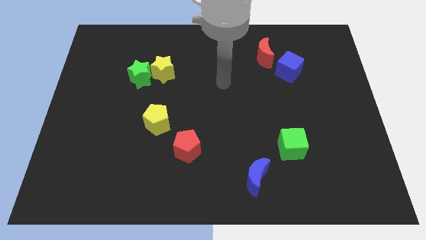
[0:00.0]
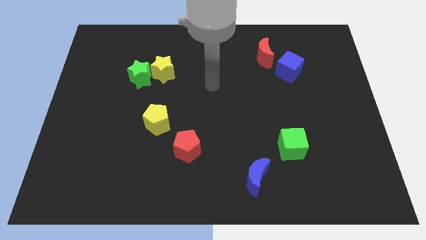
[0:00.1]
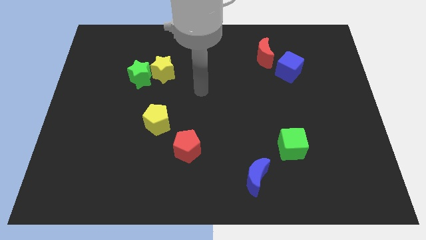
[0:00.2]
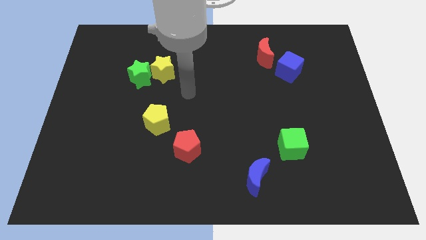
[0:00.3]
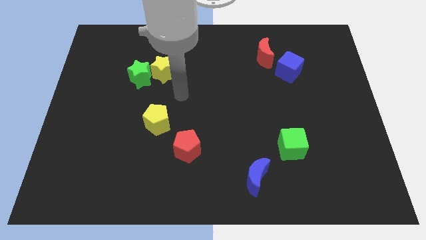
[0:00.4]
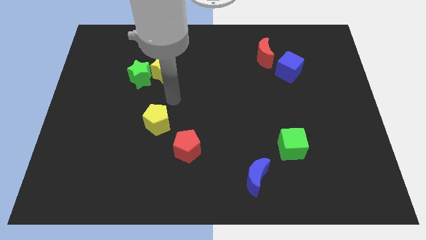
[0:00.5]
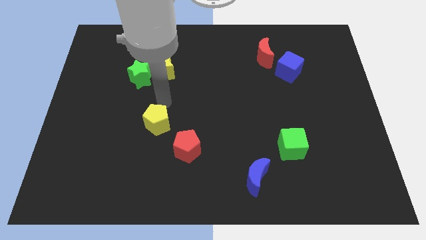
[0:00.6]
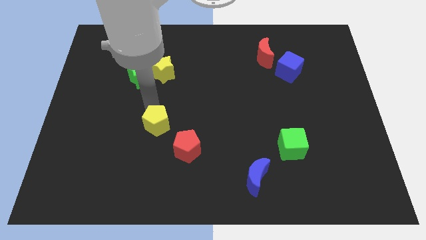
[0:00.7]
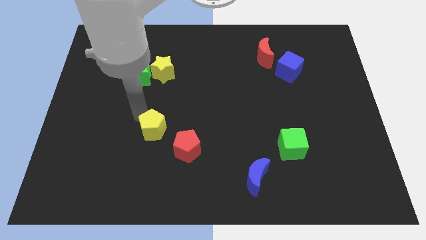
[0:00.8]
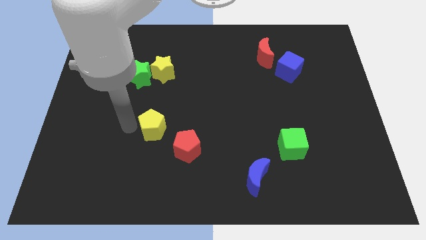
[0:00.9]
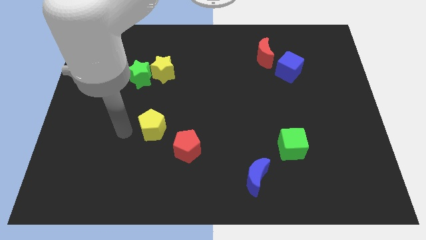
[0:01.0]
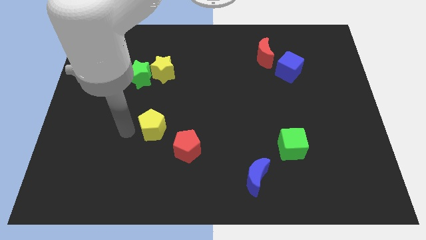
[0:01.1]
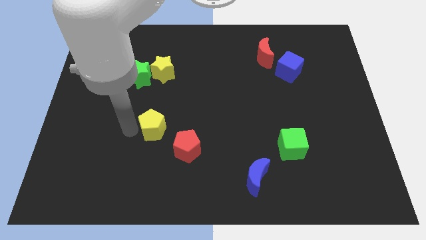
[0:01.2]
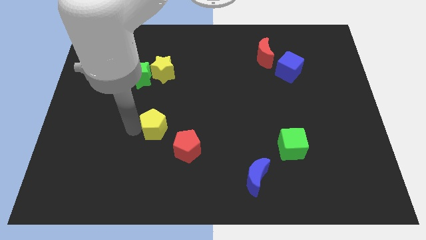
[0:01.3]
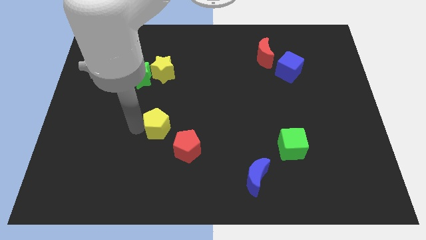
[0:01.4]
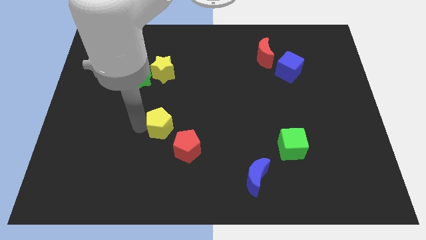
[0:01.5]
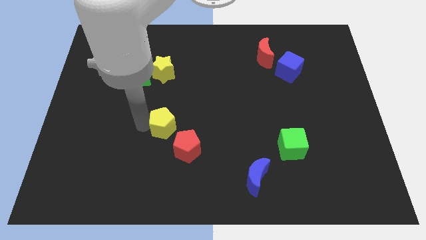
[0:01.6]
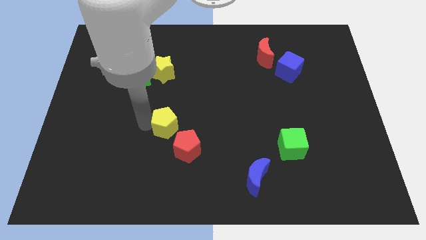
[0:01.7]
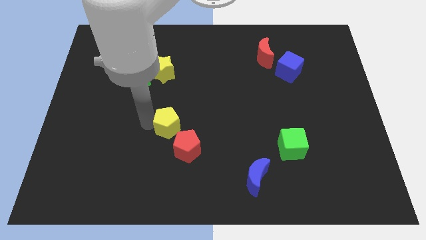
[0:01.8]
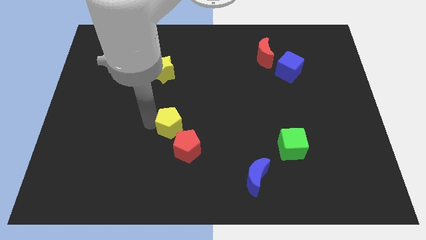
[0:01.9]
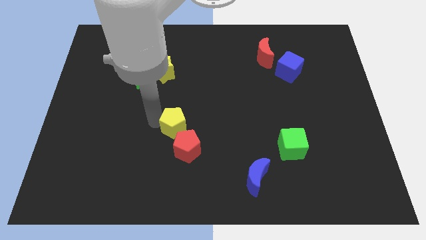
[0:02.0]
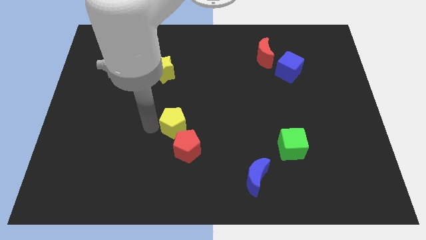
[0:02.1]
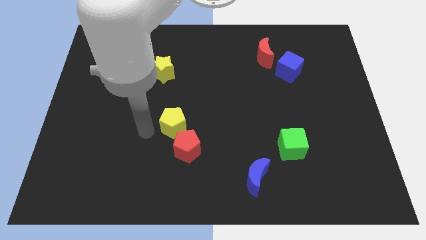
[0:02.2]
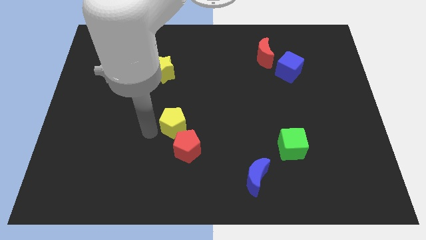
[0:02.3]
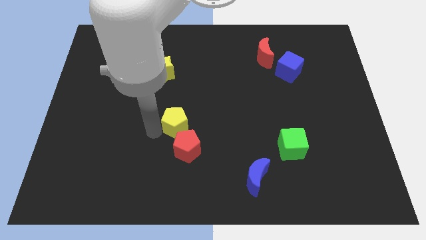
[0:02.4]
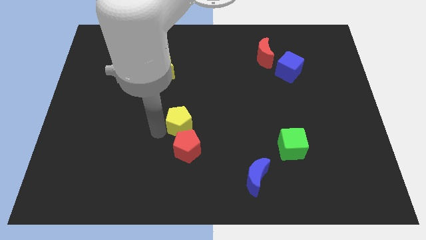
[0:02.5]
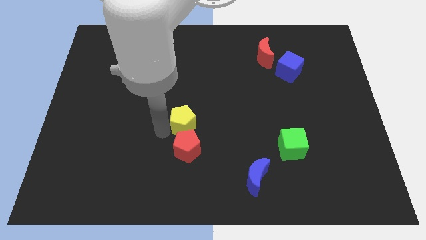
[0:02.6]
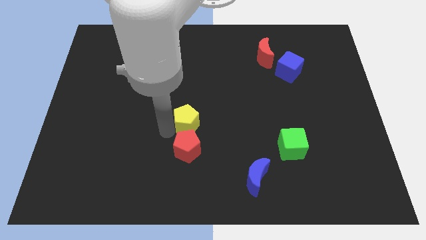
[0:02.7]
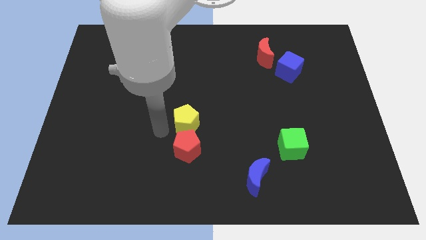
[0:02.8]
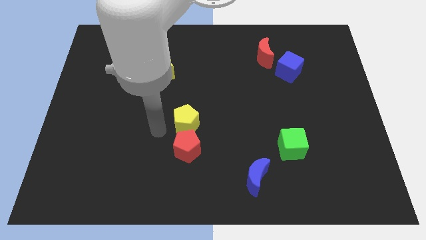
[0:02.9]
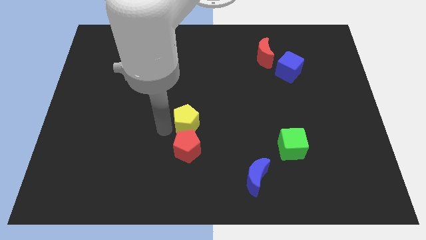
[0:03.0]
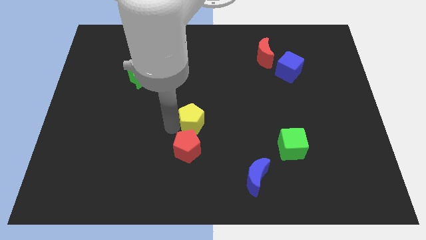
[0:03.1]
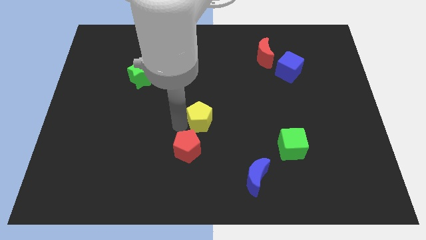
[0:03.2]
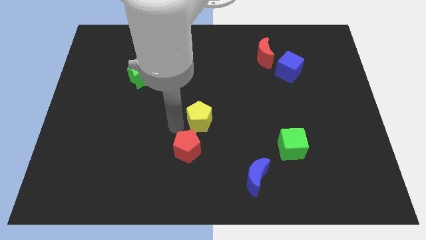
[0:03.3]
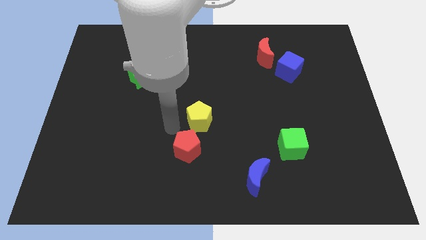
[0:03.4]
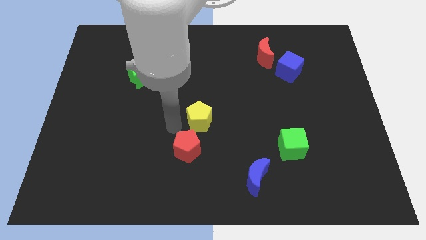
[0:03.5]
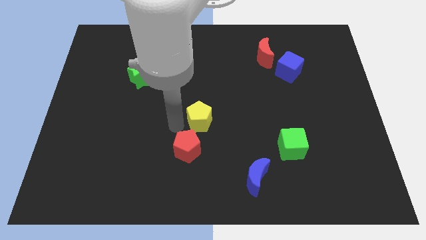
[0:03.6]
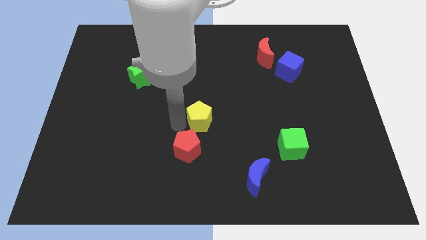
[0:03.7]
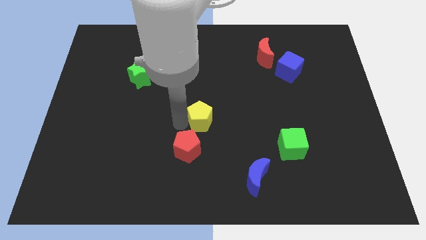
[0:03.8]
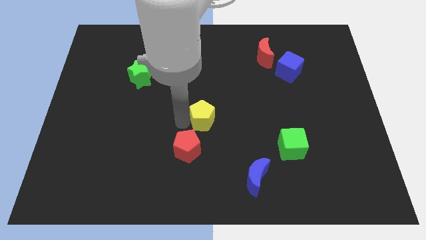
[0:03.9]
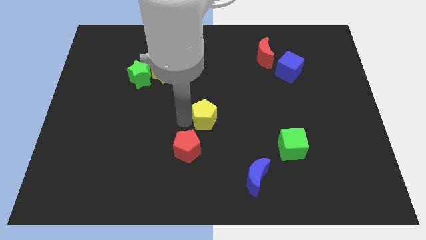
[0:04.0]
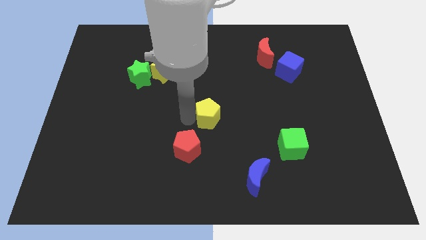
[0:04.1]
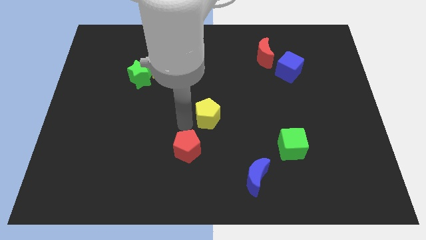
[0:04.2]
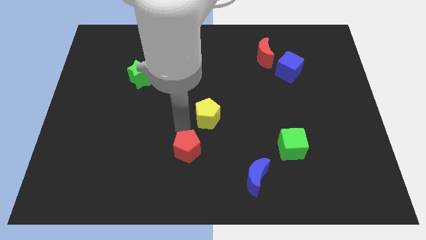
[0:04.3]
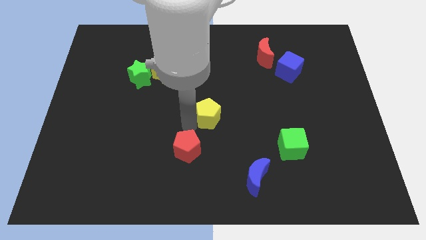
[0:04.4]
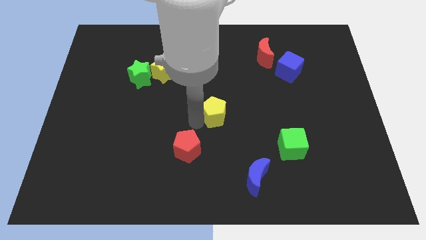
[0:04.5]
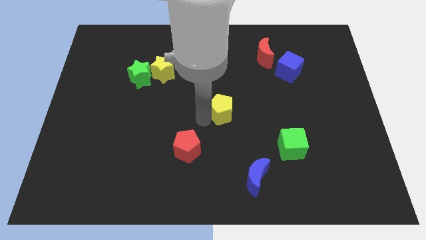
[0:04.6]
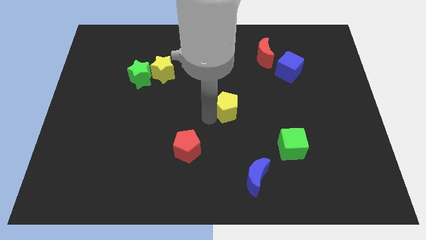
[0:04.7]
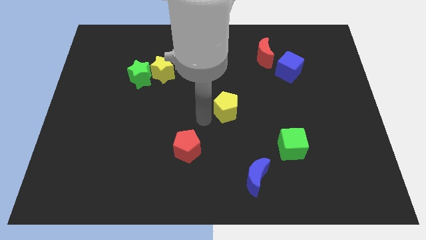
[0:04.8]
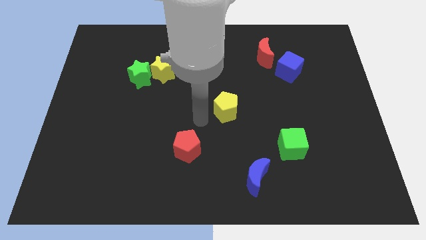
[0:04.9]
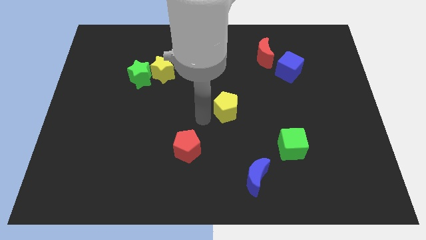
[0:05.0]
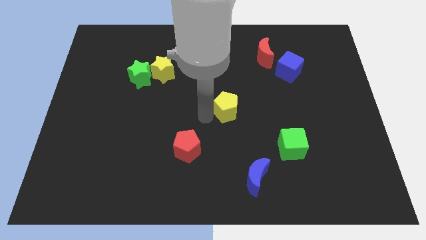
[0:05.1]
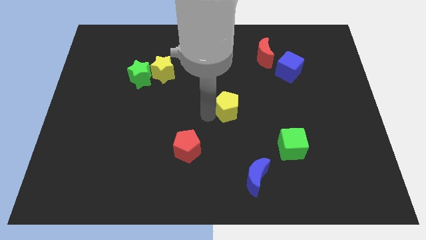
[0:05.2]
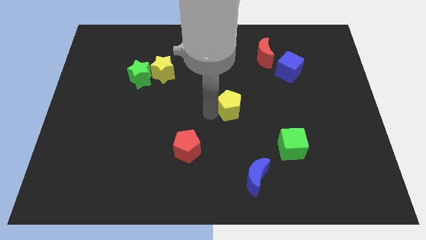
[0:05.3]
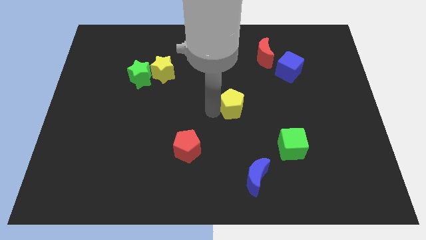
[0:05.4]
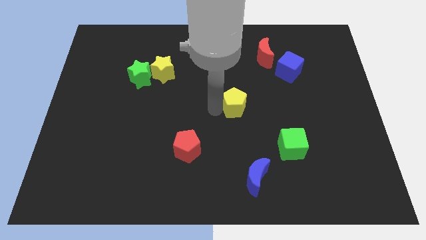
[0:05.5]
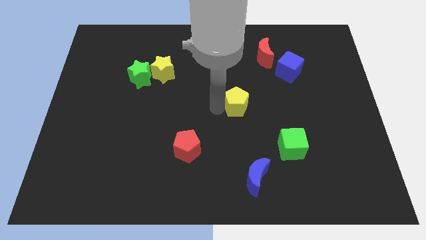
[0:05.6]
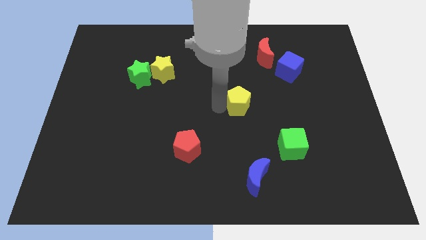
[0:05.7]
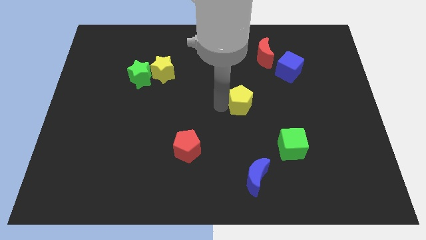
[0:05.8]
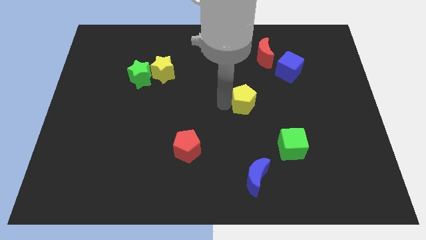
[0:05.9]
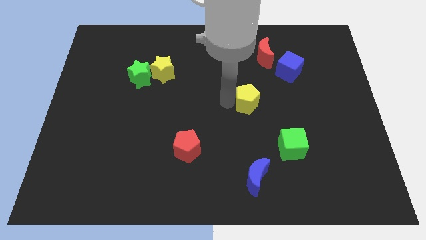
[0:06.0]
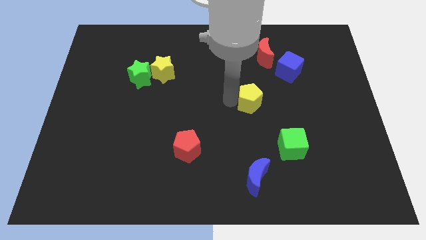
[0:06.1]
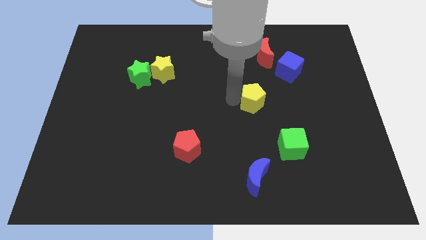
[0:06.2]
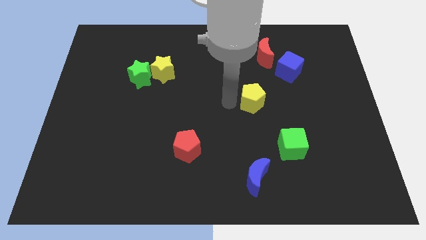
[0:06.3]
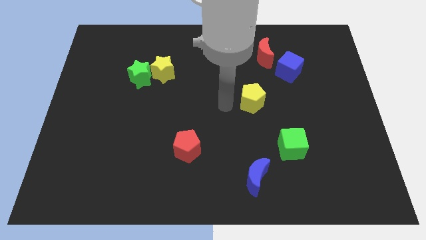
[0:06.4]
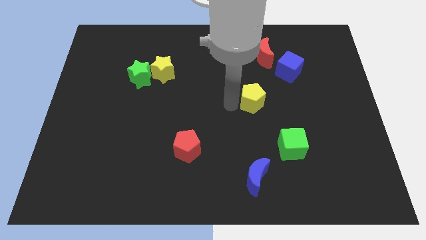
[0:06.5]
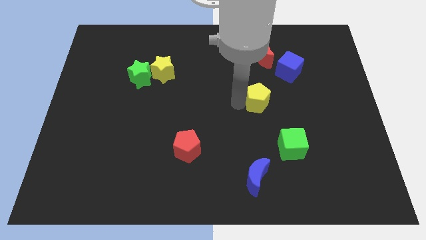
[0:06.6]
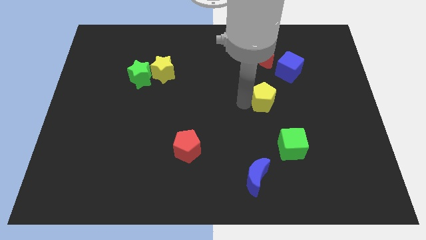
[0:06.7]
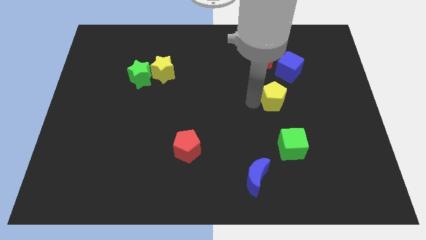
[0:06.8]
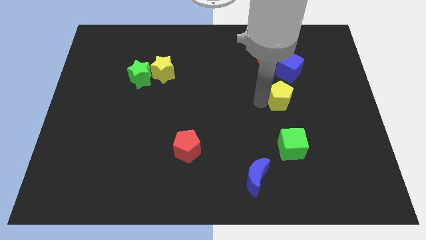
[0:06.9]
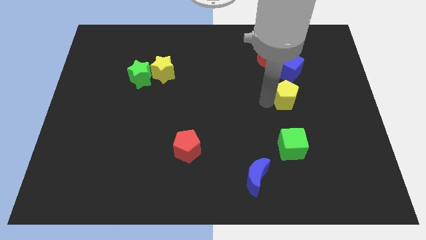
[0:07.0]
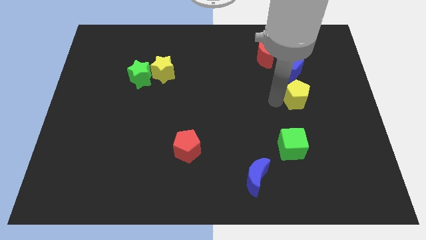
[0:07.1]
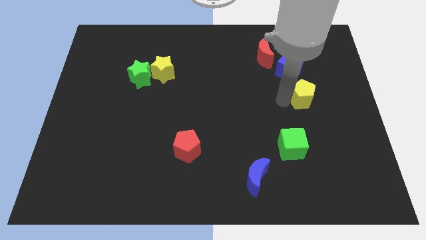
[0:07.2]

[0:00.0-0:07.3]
move the yellow pentagon to the bottom right of the blue cube
